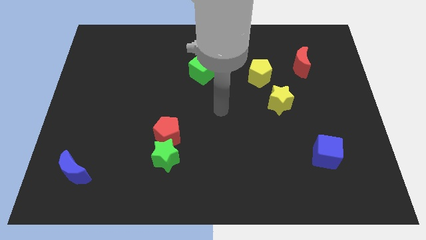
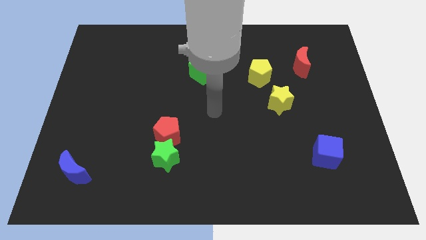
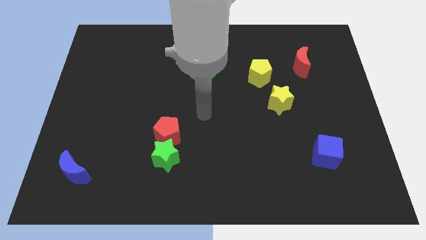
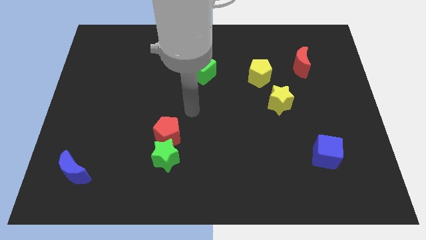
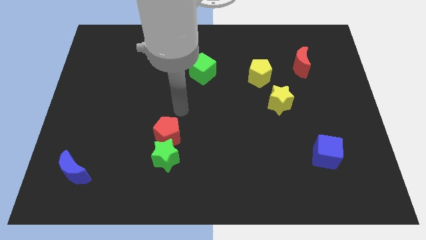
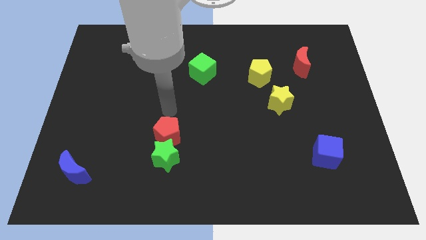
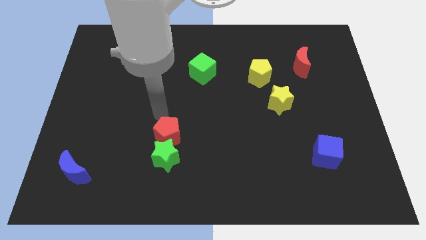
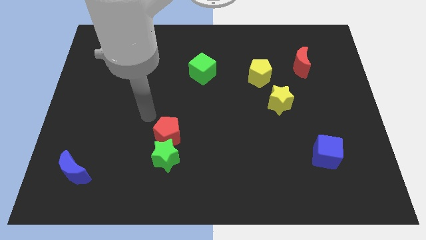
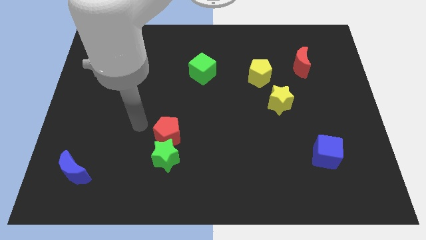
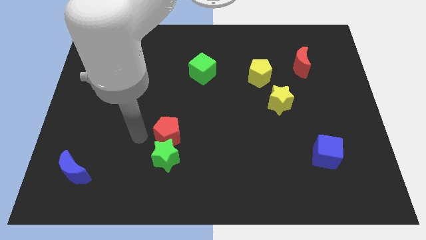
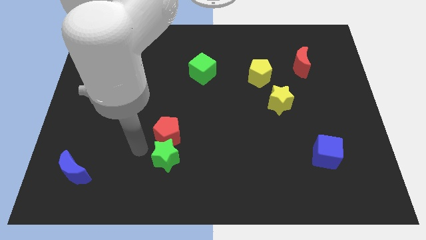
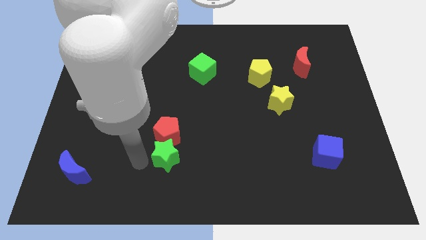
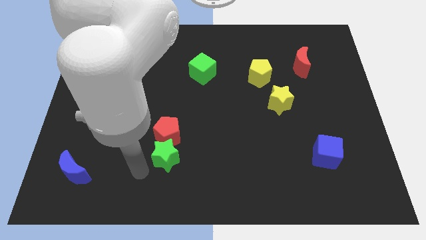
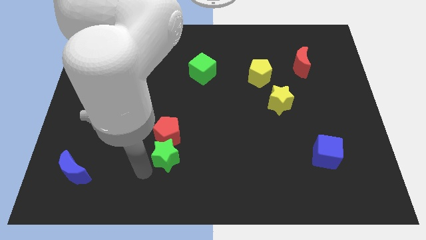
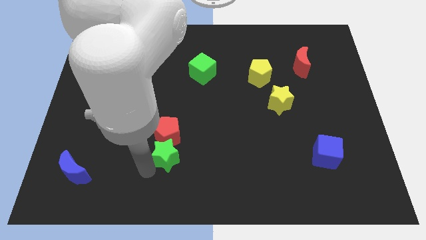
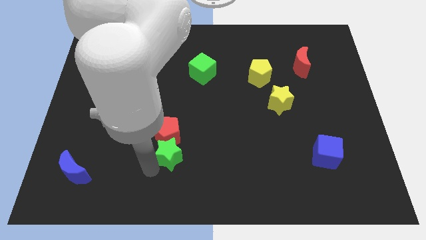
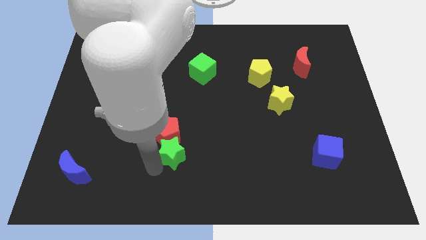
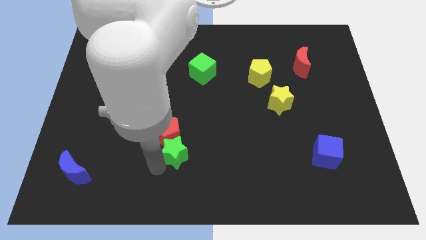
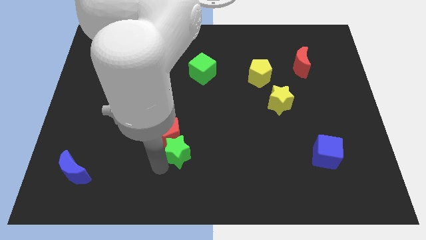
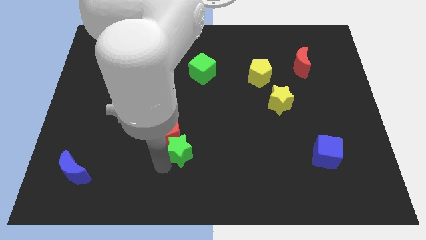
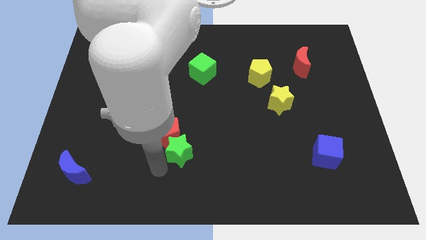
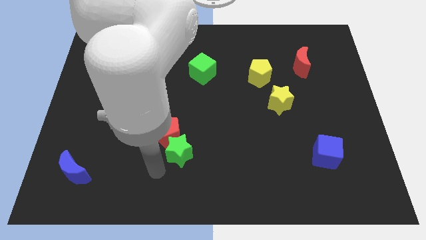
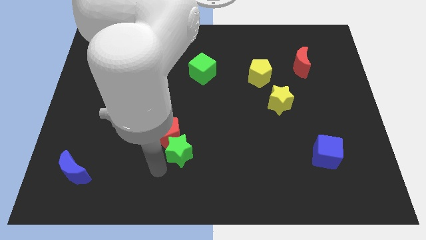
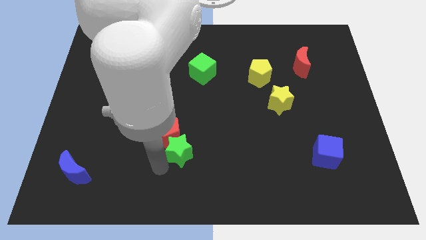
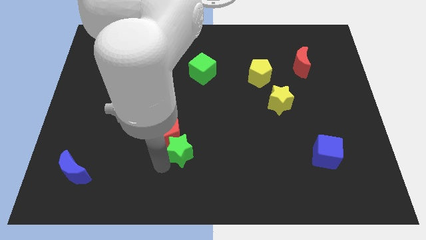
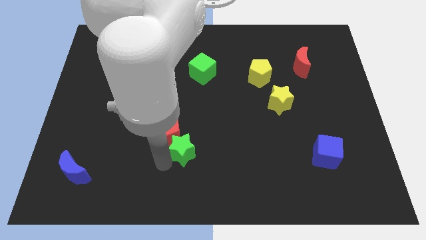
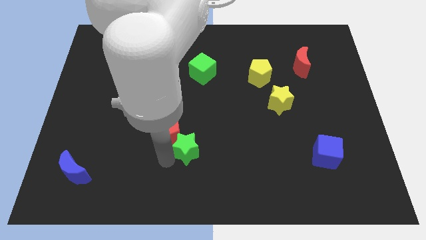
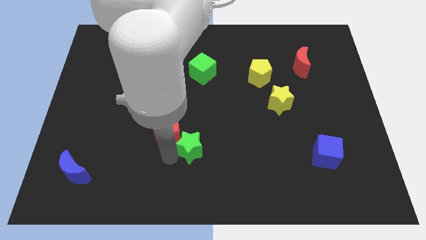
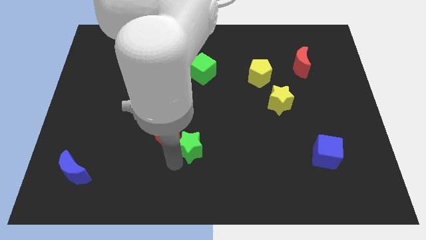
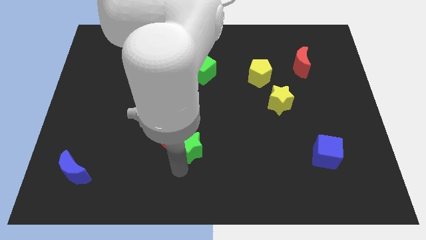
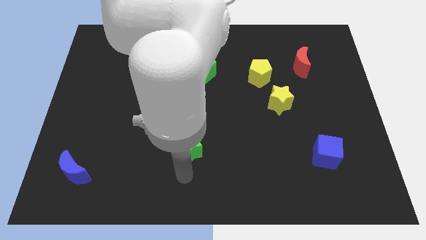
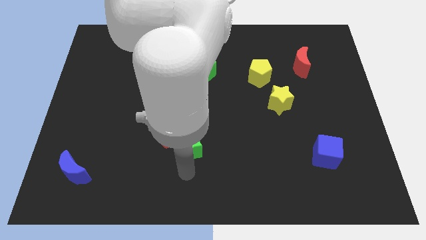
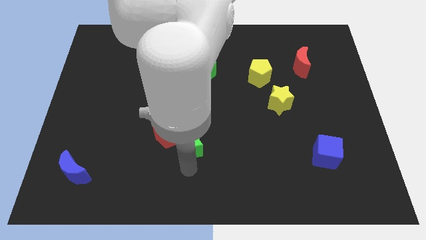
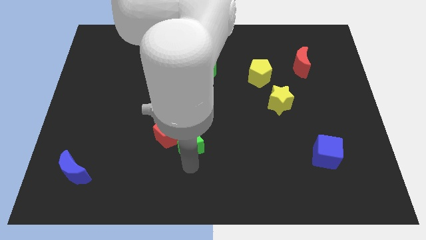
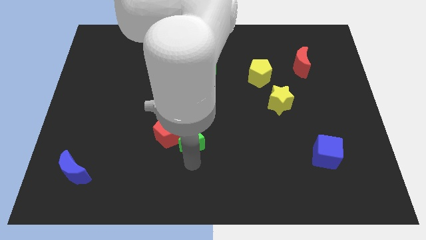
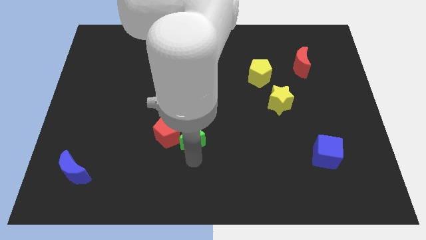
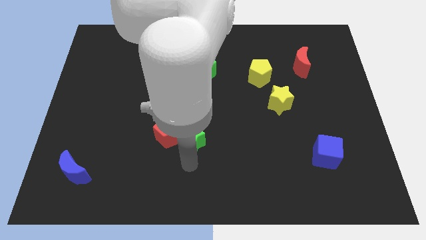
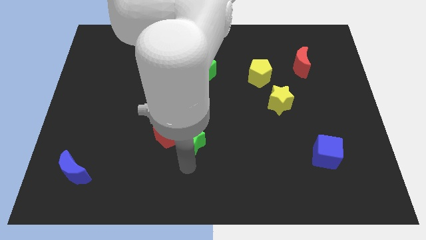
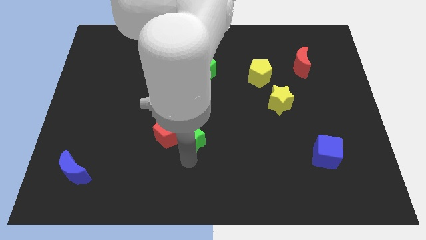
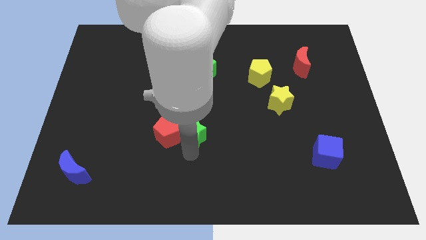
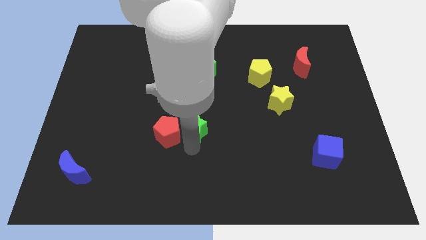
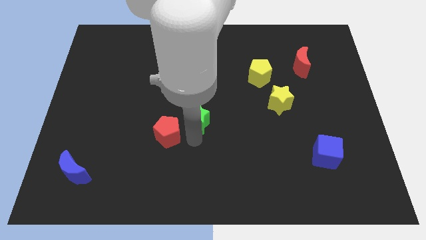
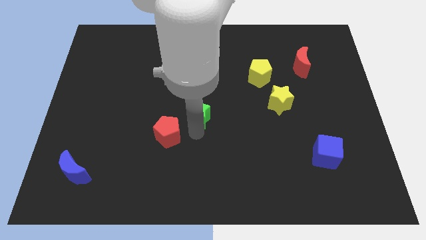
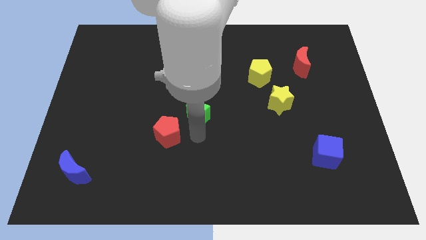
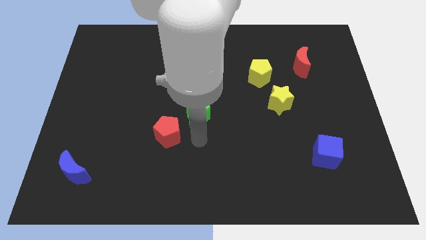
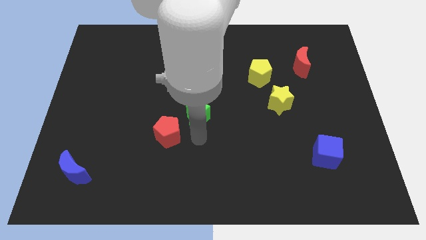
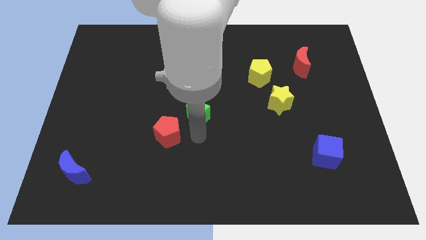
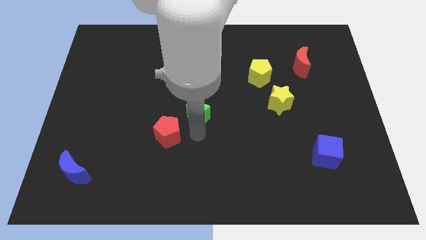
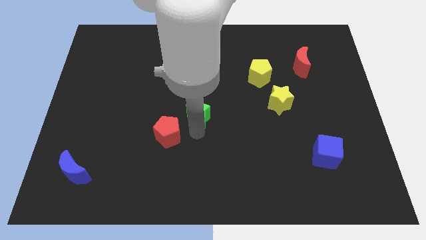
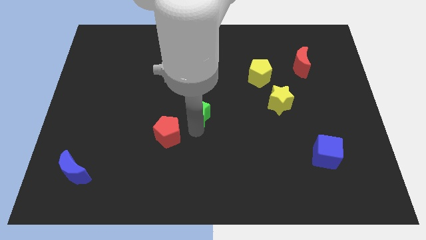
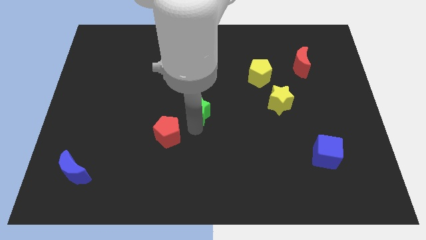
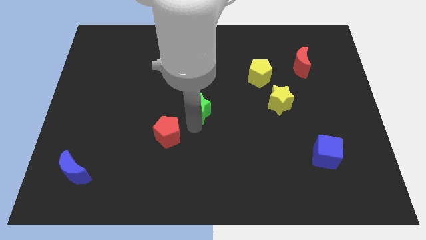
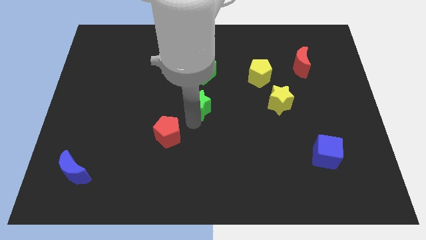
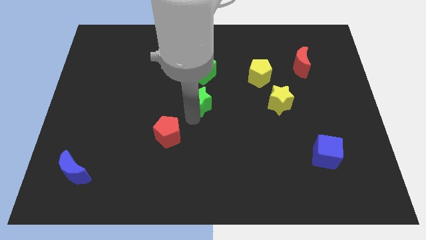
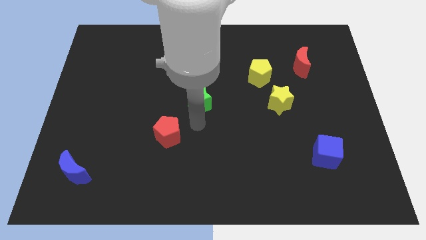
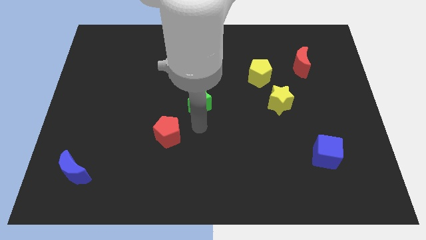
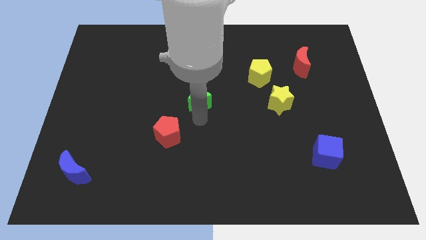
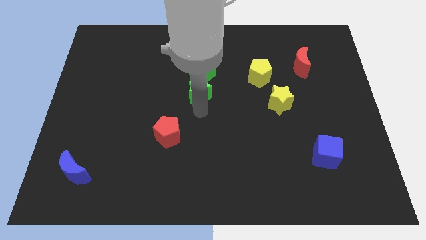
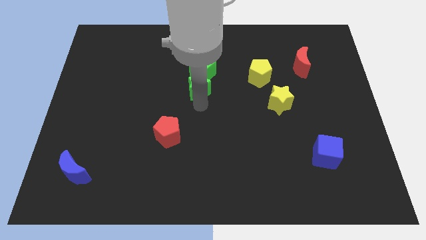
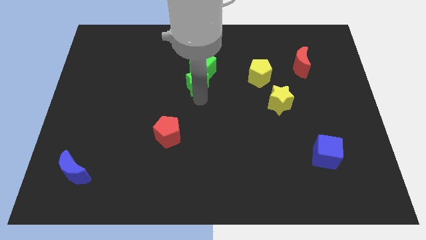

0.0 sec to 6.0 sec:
slide the green star close to the green cube

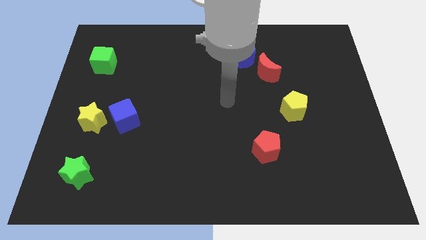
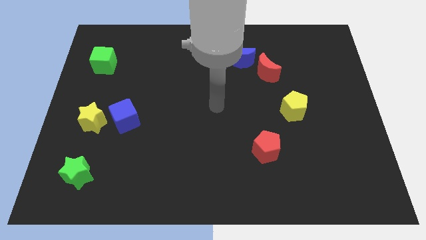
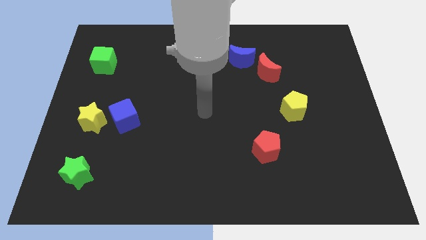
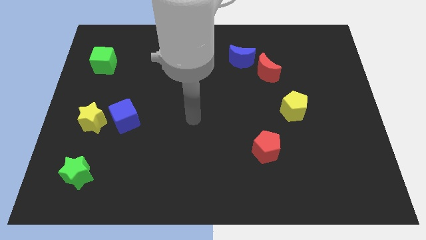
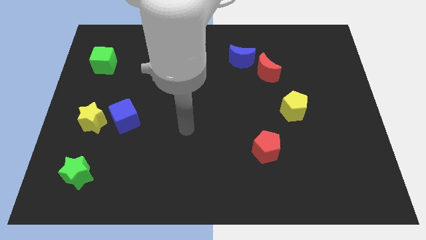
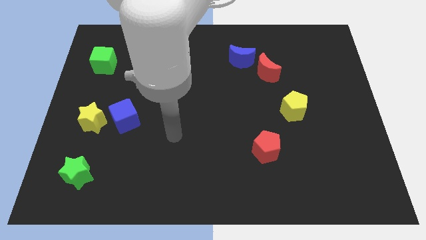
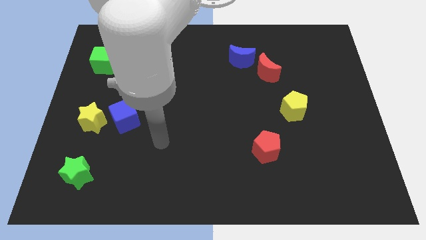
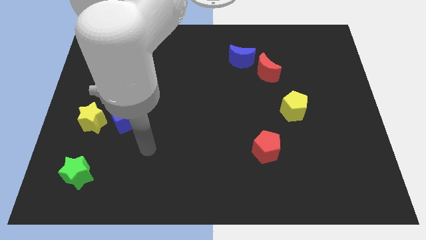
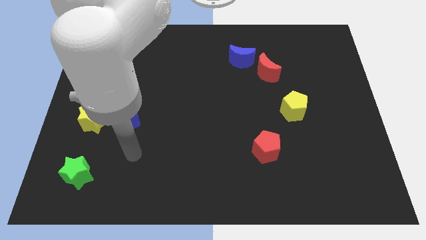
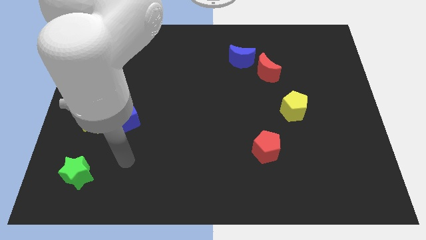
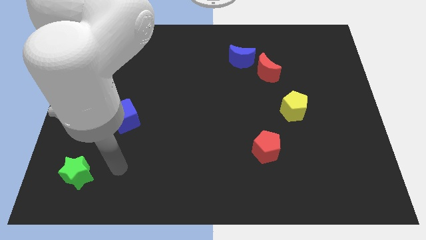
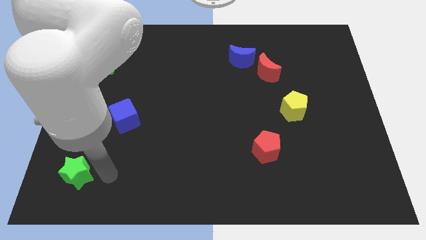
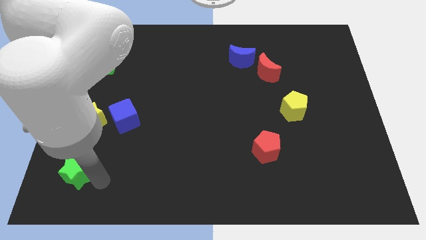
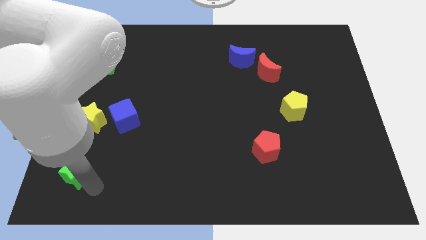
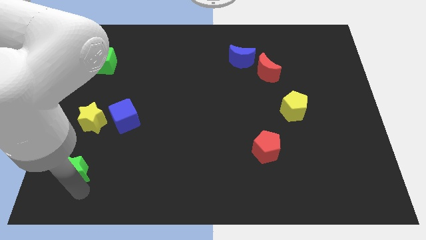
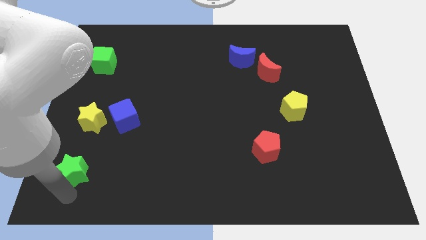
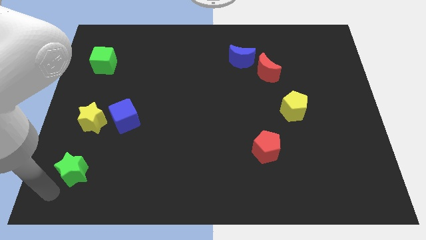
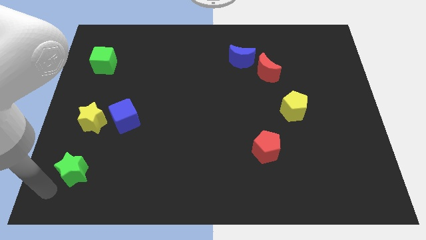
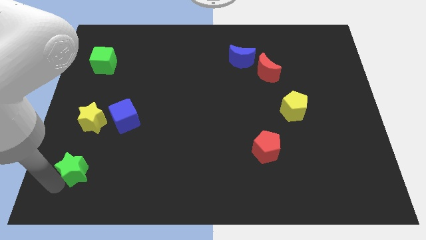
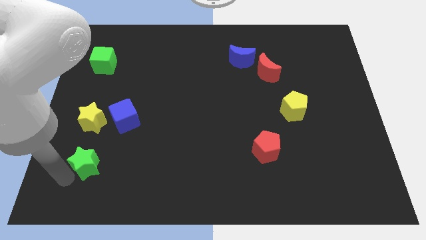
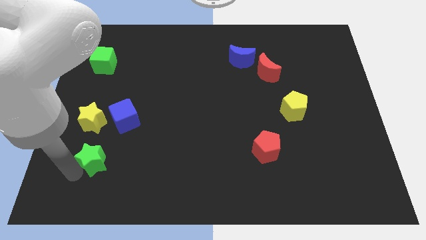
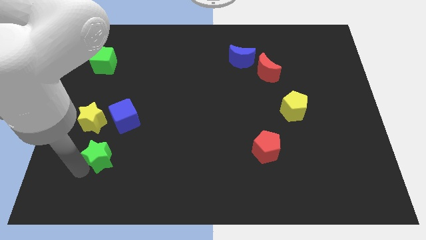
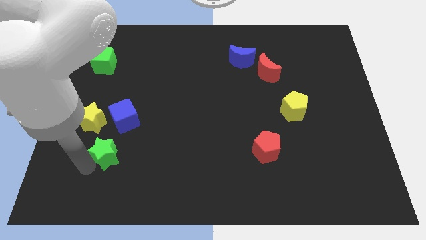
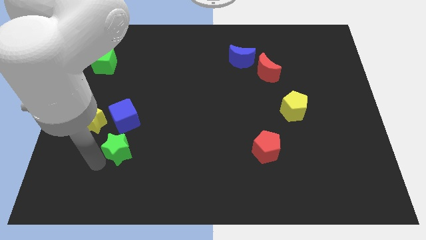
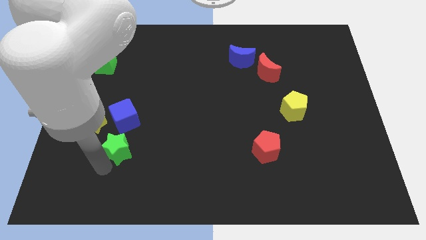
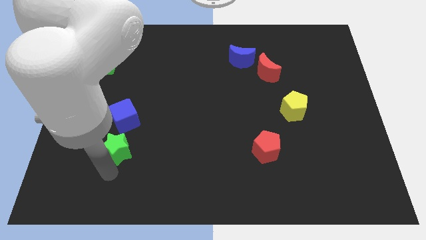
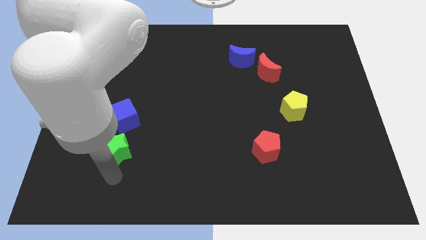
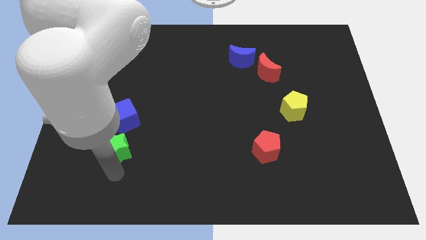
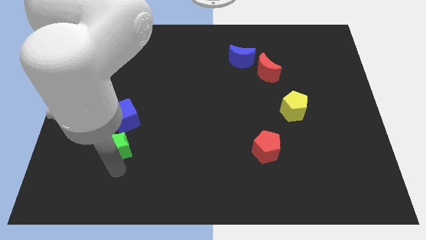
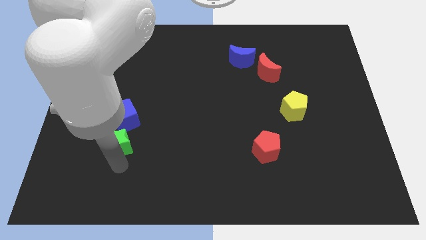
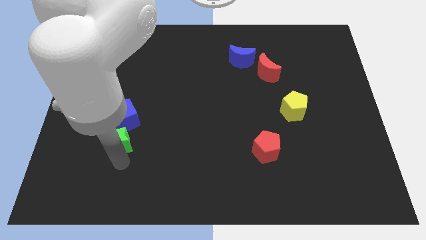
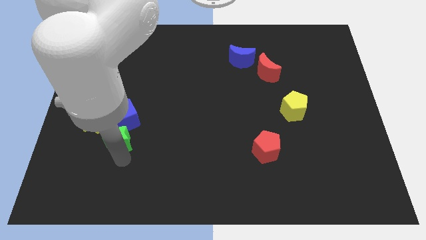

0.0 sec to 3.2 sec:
put the green star next to the blue cube
